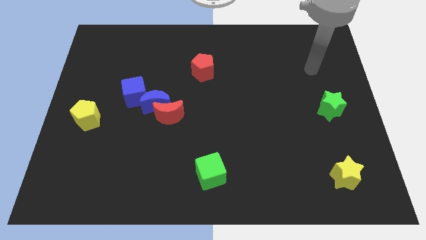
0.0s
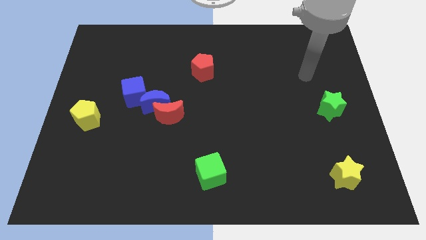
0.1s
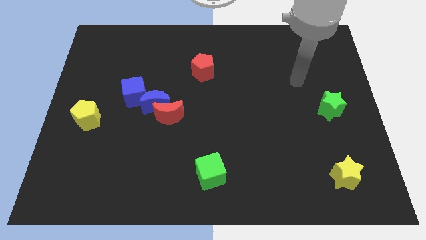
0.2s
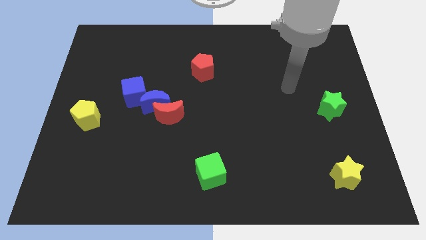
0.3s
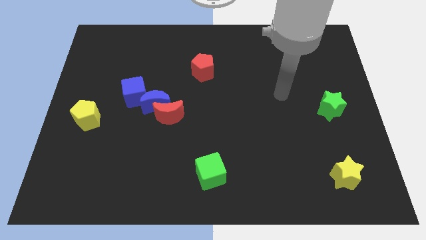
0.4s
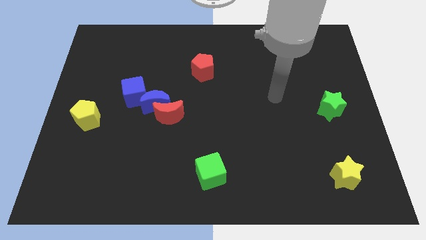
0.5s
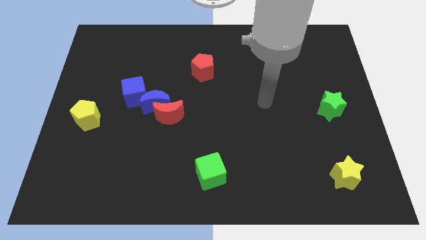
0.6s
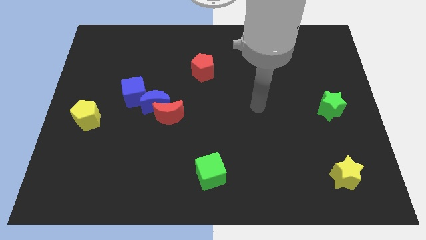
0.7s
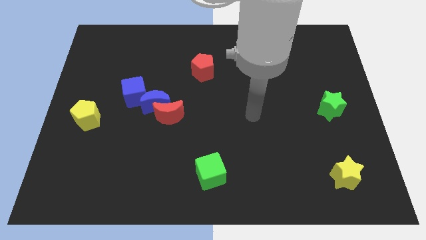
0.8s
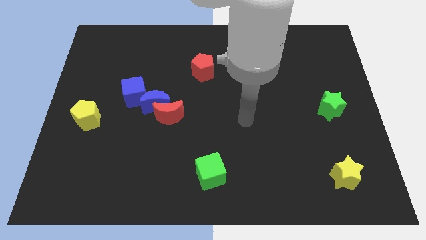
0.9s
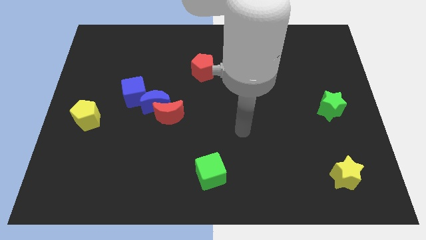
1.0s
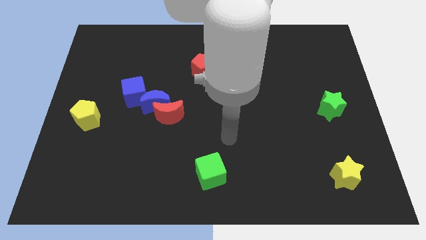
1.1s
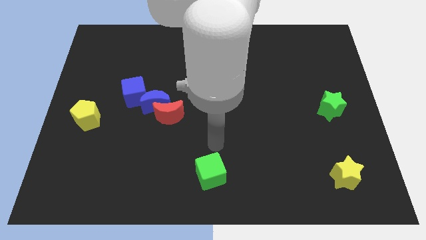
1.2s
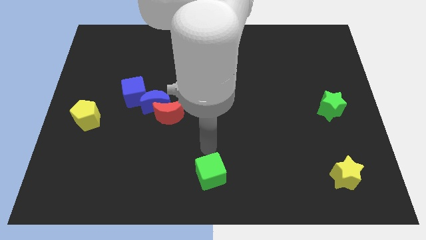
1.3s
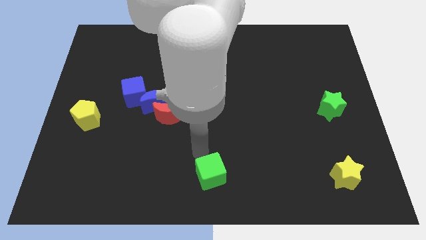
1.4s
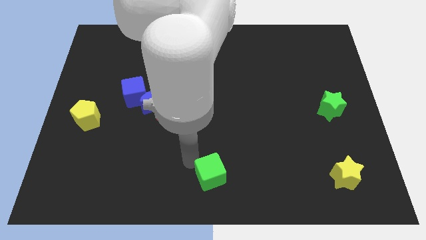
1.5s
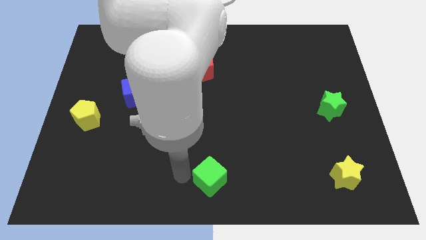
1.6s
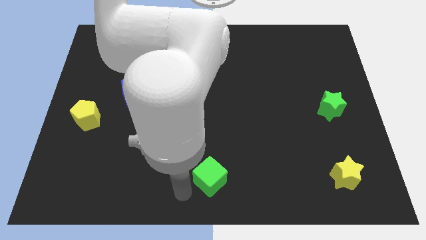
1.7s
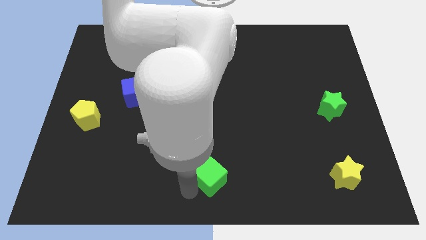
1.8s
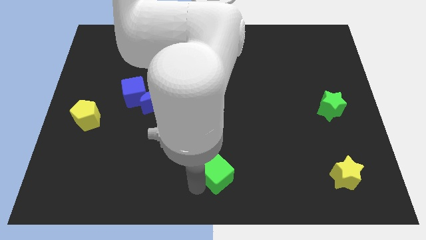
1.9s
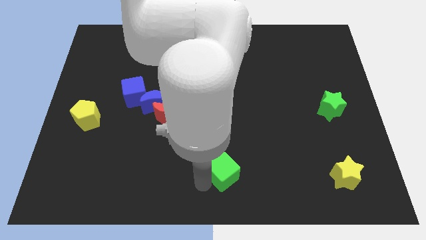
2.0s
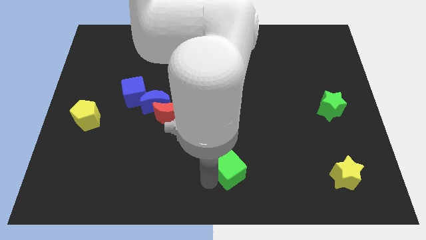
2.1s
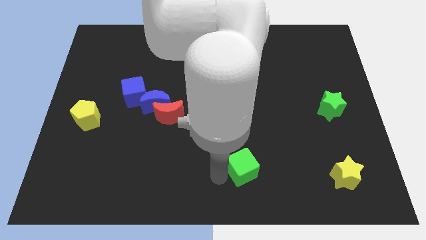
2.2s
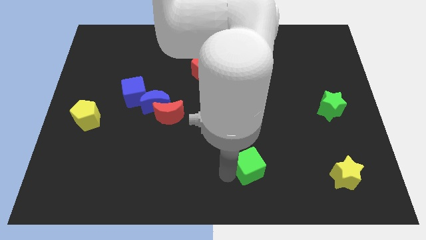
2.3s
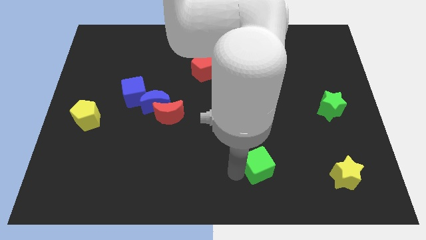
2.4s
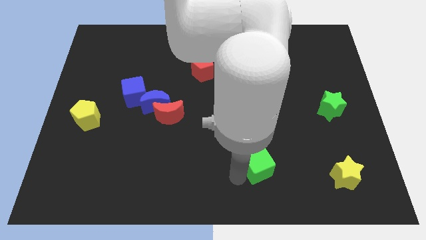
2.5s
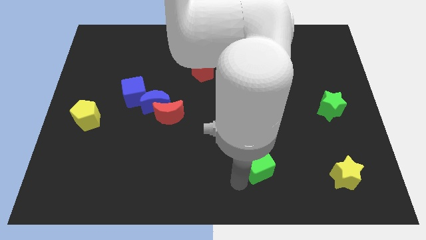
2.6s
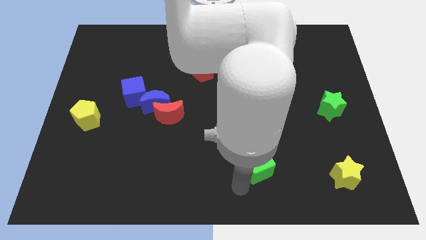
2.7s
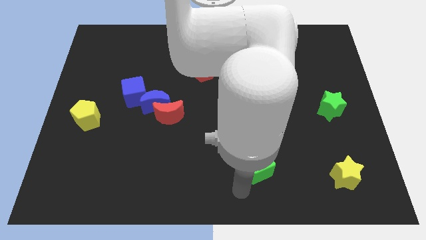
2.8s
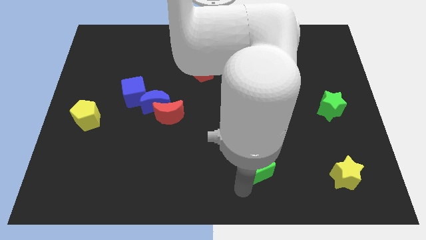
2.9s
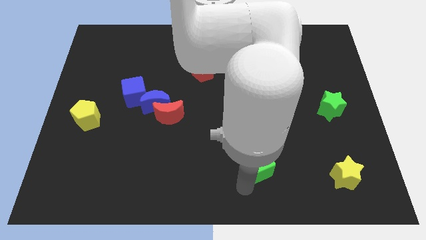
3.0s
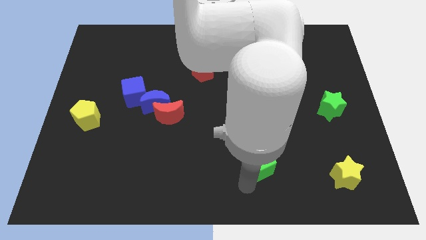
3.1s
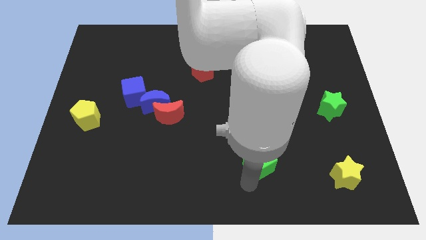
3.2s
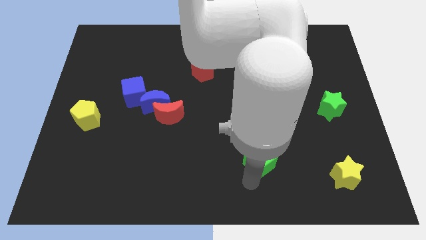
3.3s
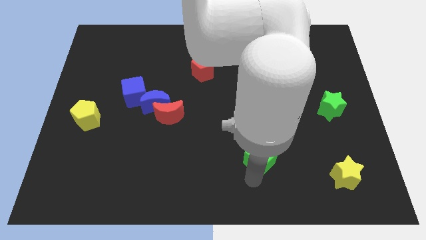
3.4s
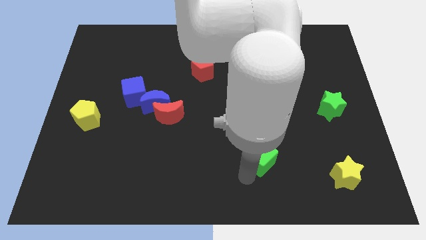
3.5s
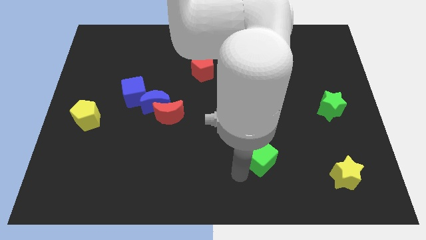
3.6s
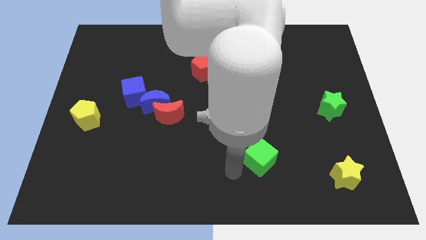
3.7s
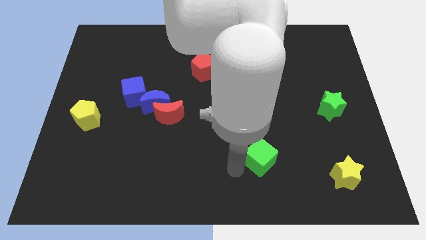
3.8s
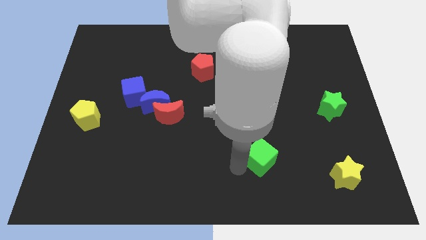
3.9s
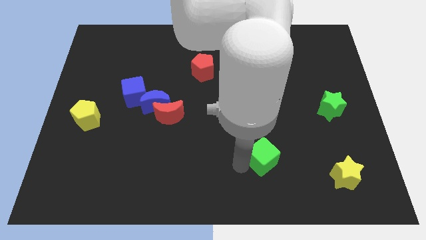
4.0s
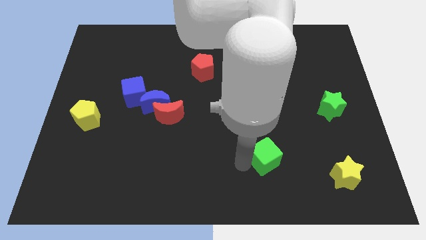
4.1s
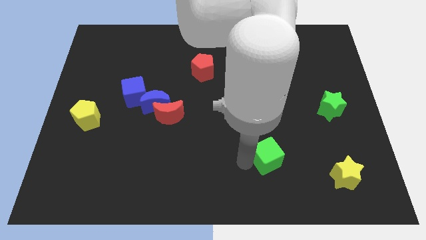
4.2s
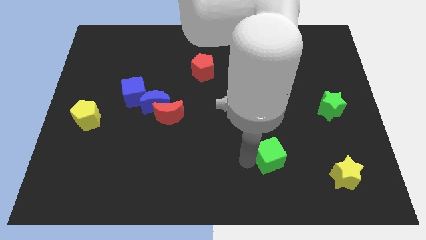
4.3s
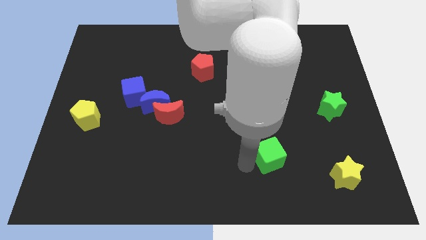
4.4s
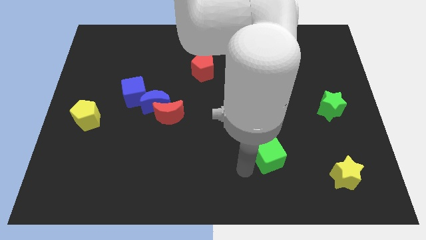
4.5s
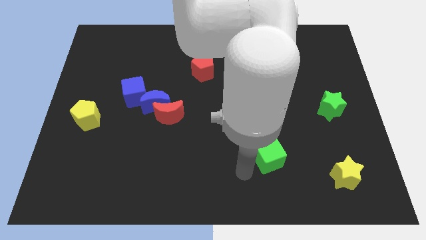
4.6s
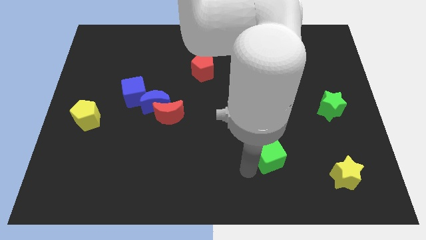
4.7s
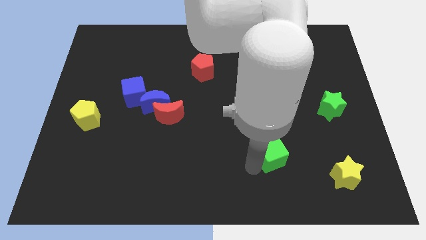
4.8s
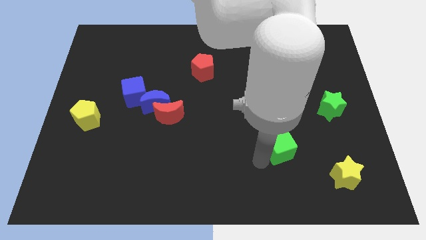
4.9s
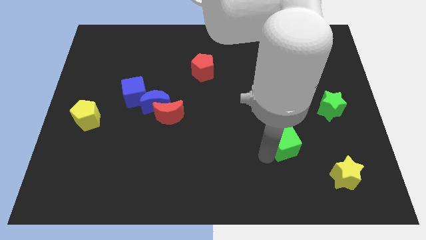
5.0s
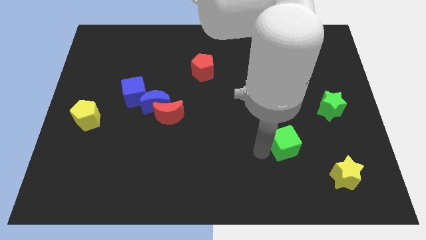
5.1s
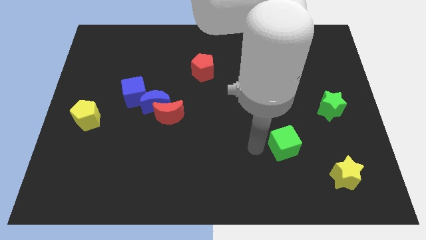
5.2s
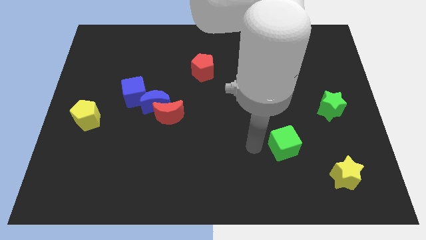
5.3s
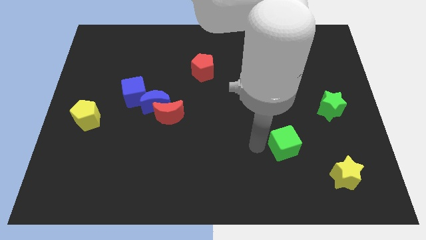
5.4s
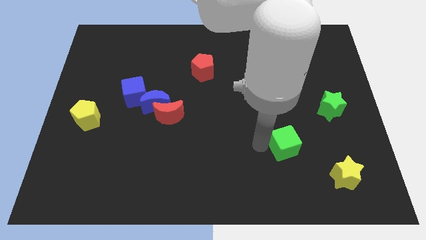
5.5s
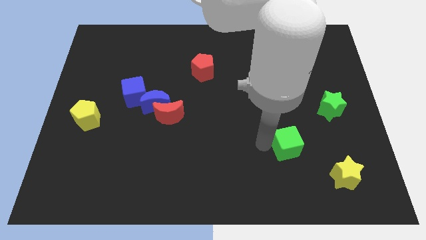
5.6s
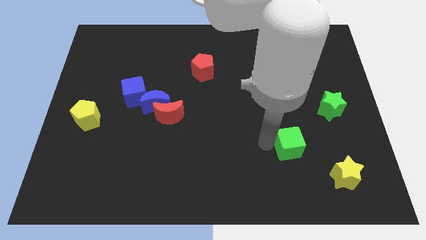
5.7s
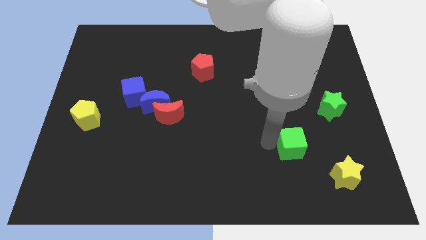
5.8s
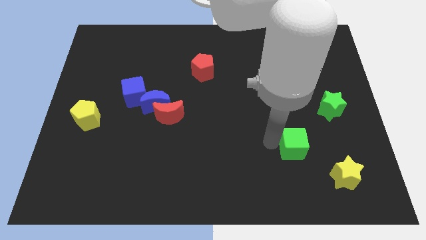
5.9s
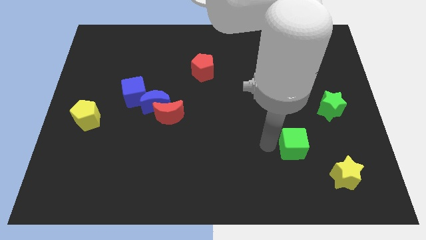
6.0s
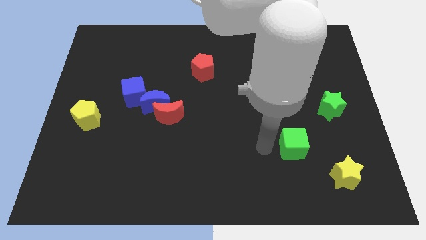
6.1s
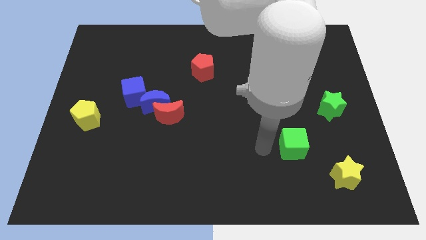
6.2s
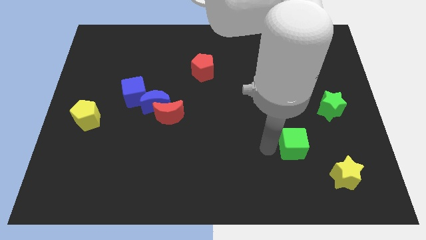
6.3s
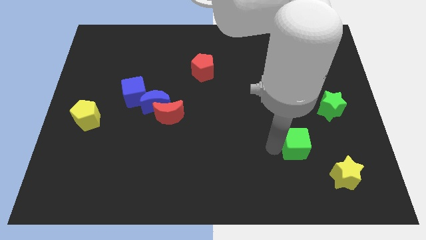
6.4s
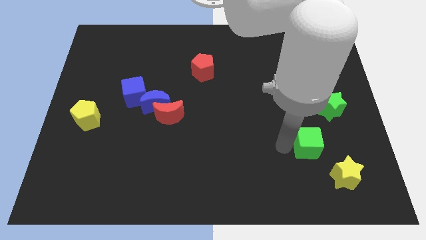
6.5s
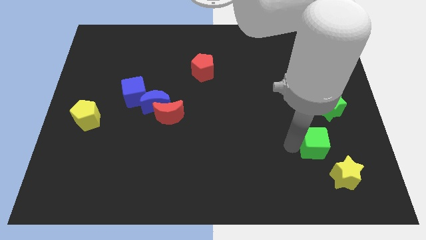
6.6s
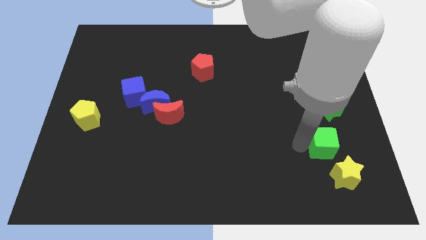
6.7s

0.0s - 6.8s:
push the green cube below the green star

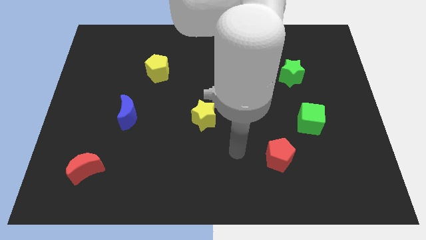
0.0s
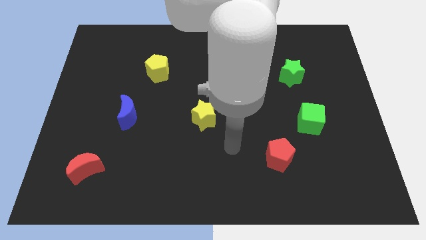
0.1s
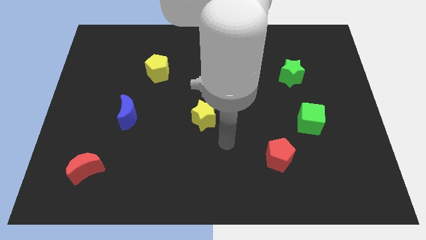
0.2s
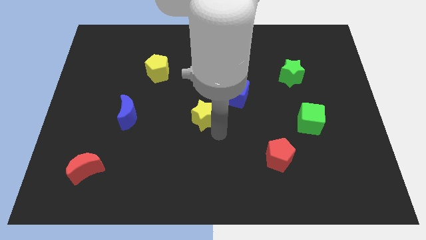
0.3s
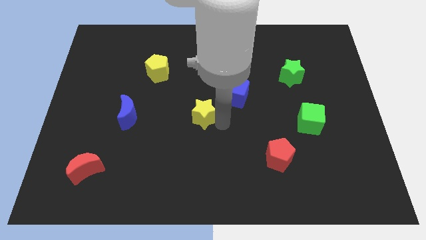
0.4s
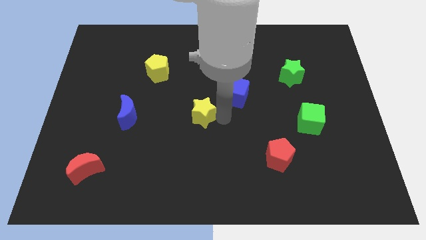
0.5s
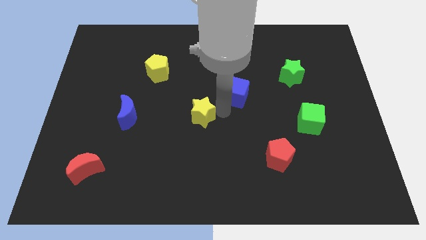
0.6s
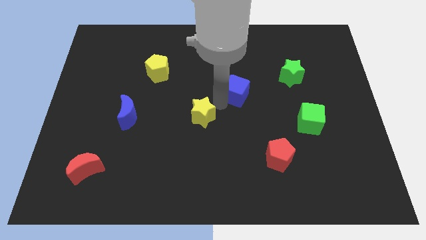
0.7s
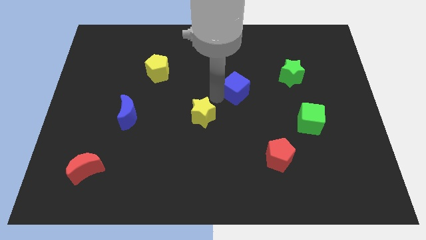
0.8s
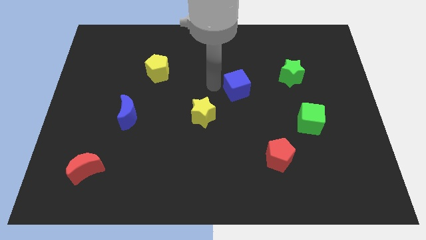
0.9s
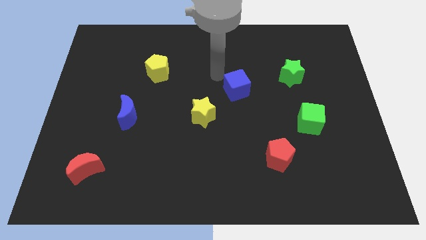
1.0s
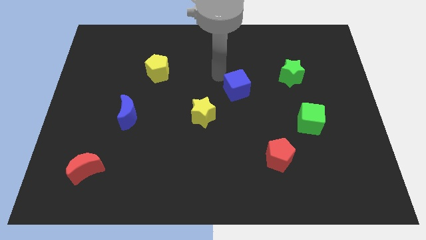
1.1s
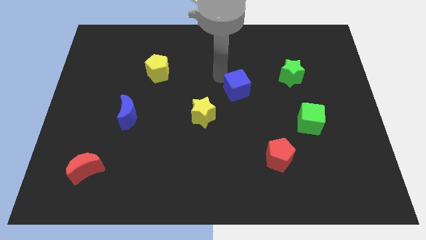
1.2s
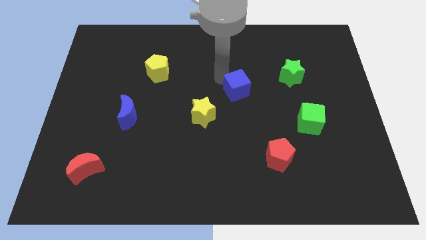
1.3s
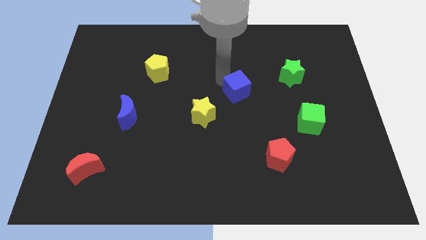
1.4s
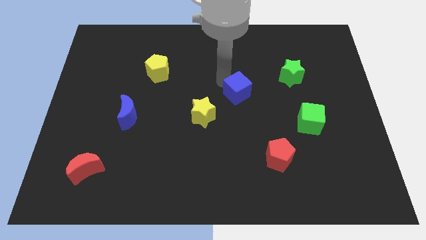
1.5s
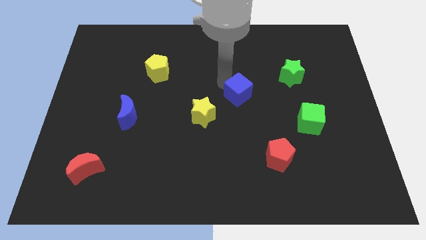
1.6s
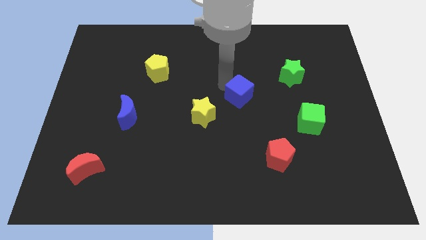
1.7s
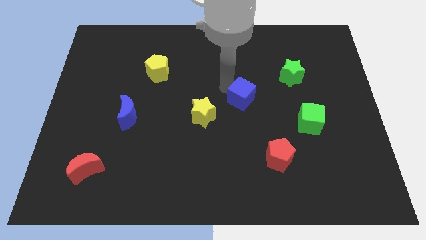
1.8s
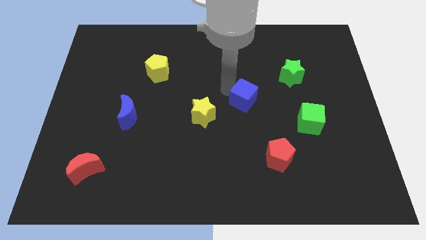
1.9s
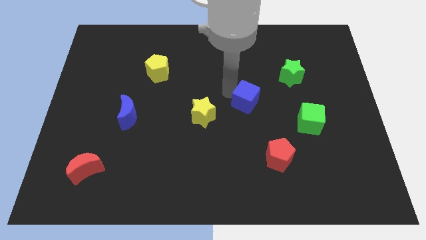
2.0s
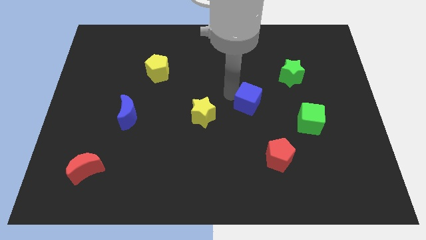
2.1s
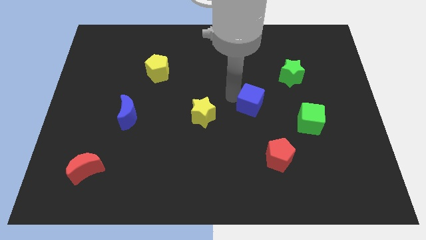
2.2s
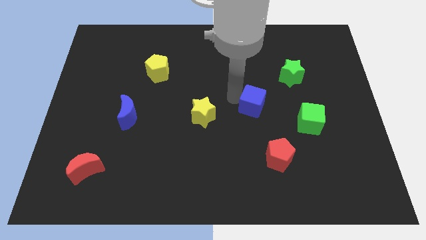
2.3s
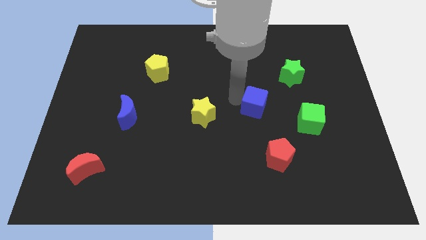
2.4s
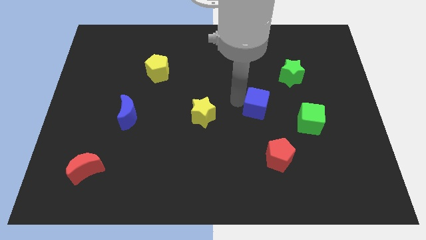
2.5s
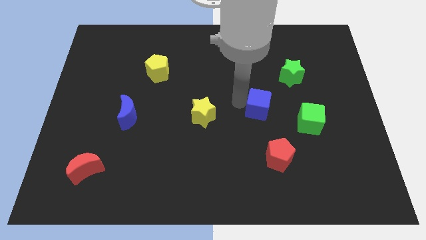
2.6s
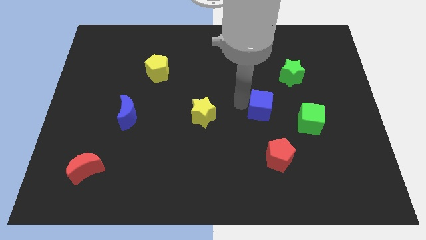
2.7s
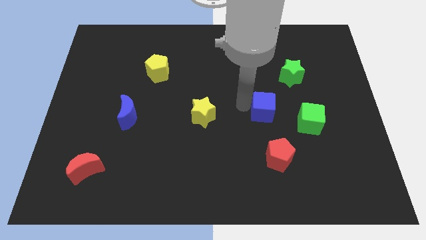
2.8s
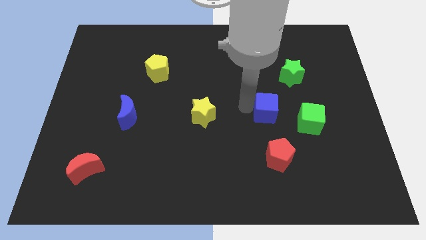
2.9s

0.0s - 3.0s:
slide the blue cube to the top left of the green cube
